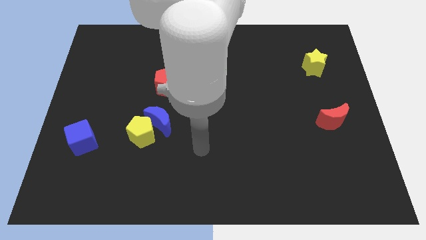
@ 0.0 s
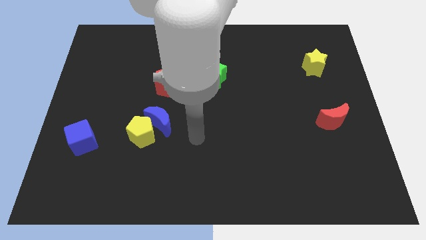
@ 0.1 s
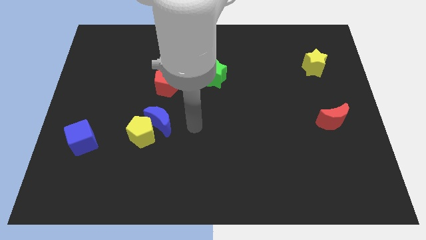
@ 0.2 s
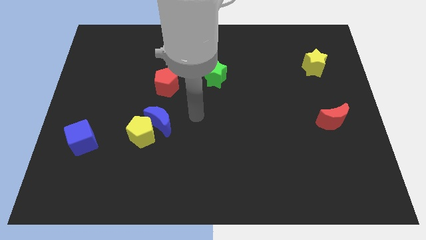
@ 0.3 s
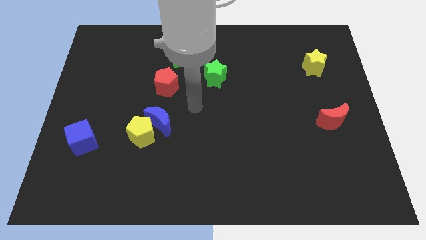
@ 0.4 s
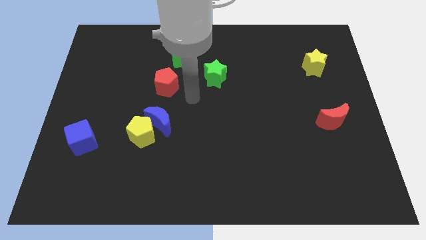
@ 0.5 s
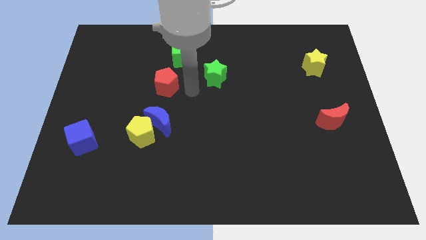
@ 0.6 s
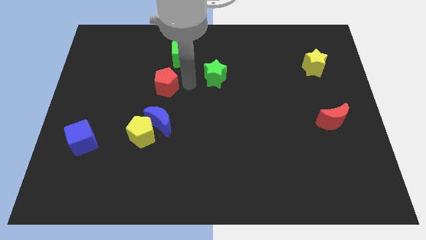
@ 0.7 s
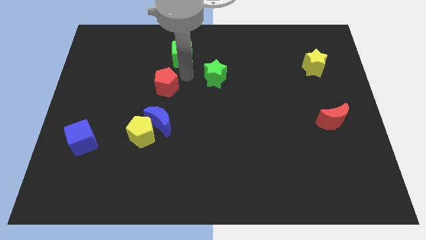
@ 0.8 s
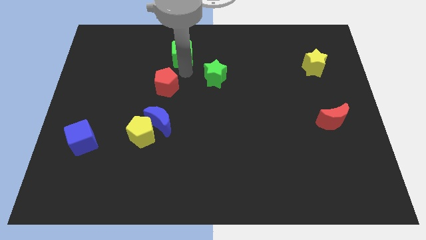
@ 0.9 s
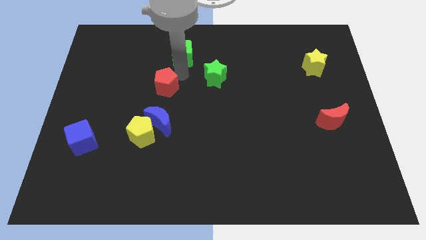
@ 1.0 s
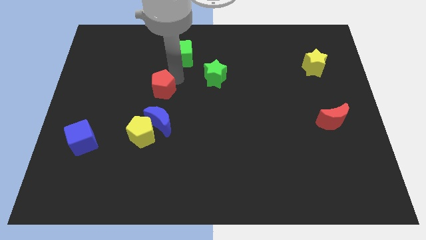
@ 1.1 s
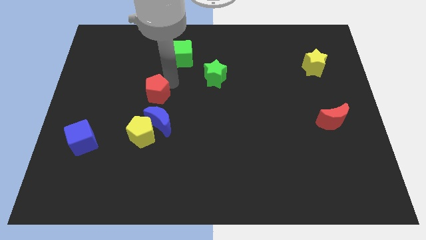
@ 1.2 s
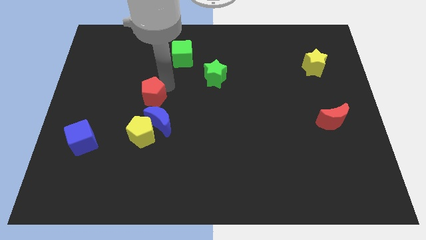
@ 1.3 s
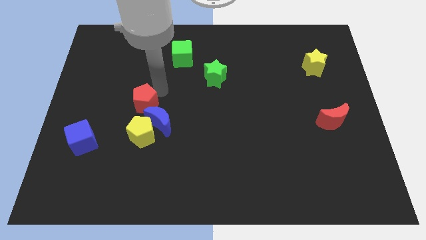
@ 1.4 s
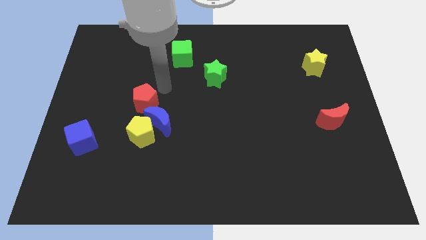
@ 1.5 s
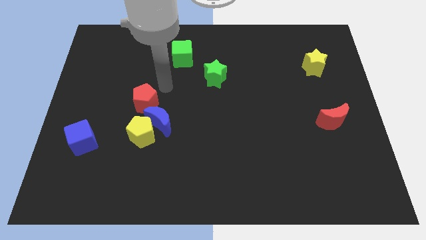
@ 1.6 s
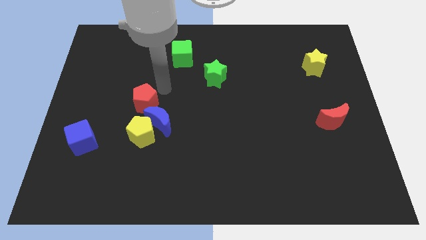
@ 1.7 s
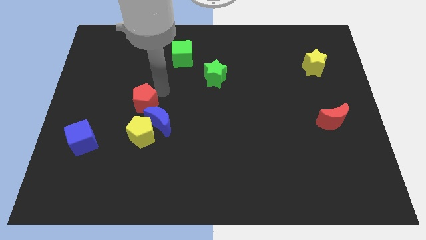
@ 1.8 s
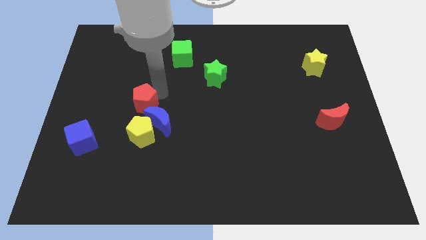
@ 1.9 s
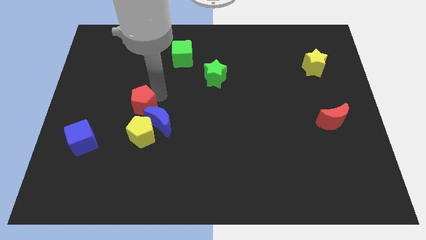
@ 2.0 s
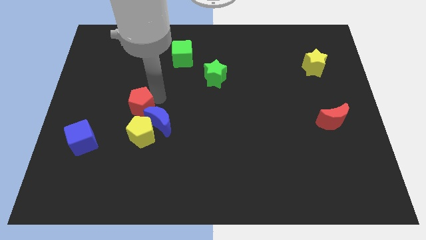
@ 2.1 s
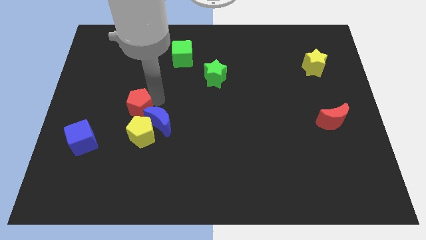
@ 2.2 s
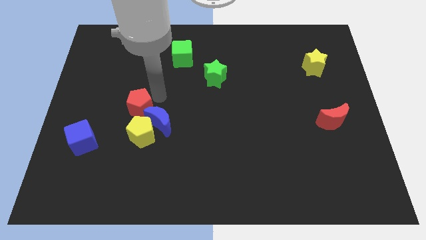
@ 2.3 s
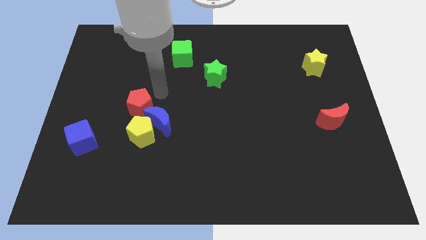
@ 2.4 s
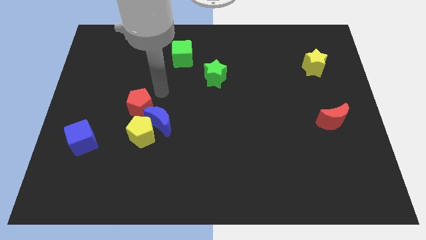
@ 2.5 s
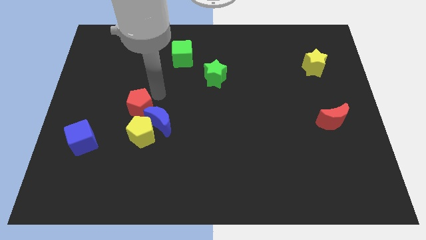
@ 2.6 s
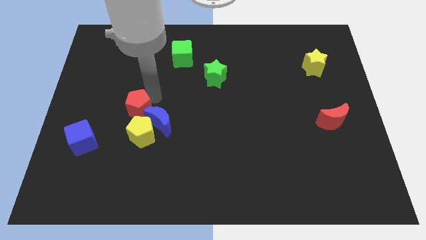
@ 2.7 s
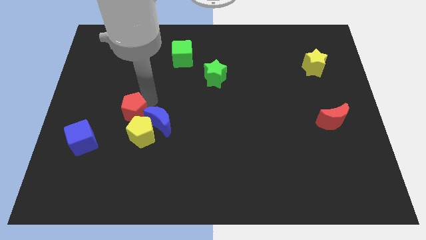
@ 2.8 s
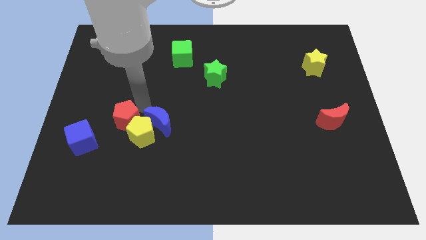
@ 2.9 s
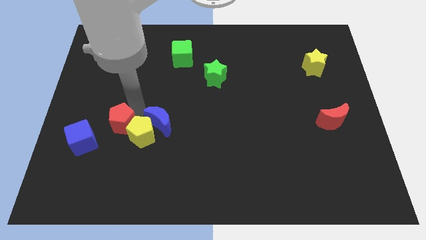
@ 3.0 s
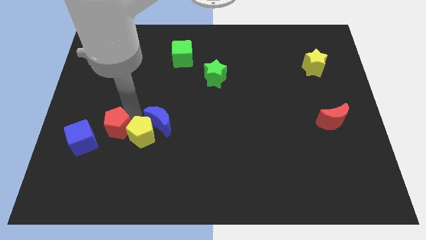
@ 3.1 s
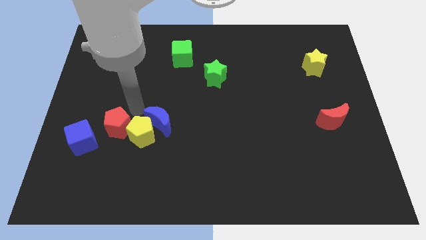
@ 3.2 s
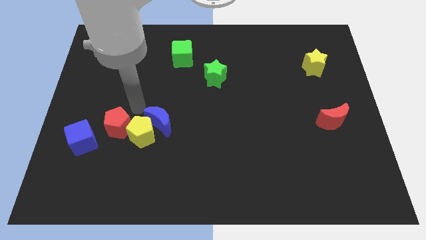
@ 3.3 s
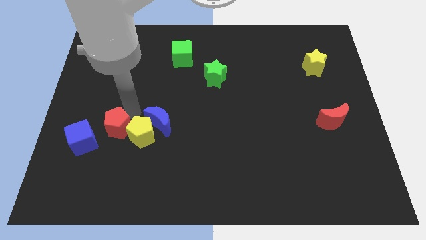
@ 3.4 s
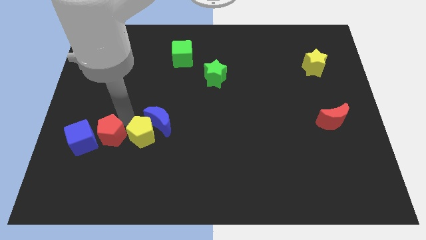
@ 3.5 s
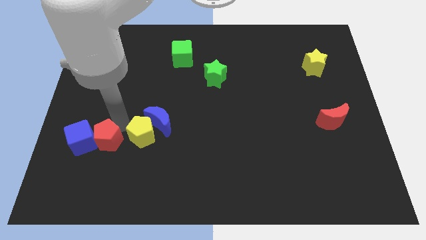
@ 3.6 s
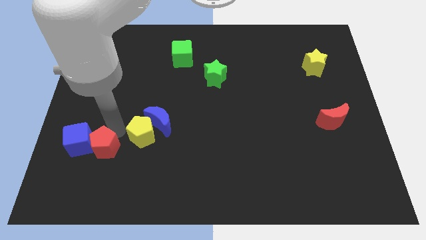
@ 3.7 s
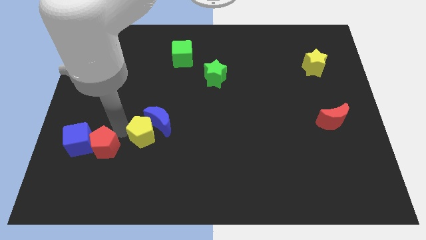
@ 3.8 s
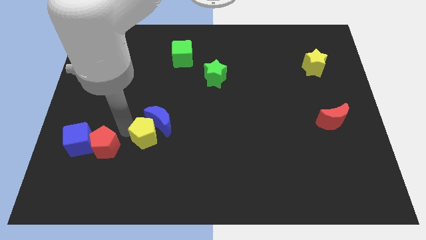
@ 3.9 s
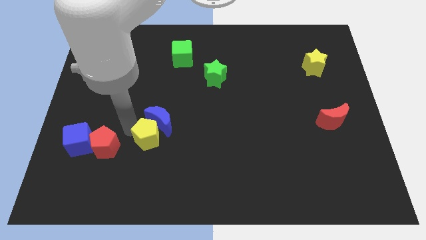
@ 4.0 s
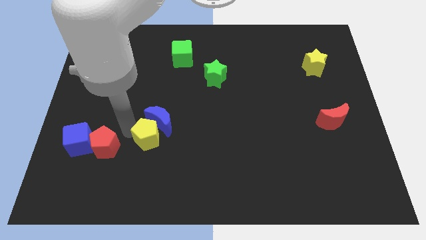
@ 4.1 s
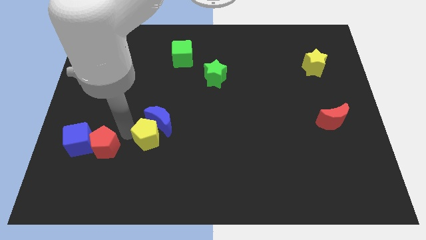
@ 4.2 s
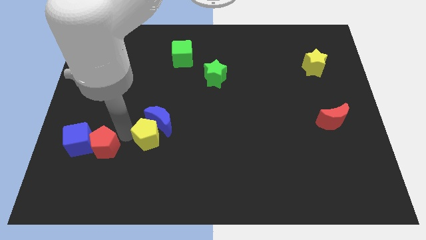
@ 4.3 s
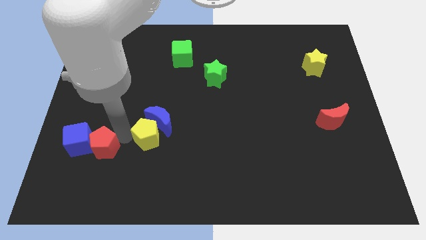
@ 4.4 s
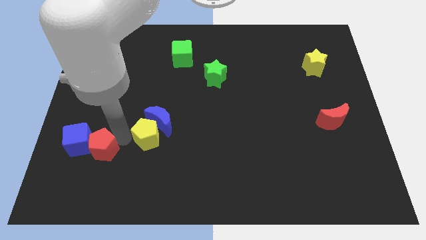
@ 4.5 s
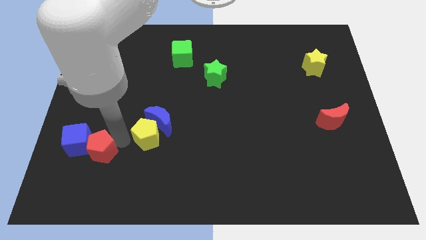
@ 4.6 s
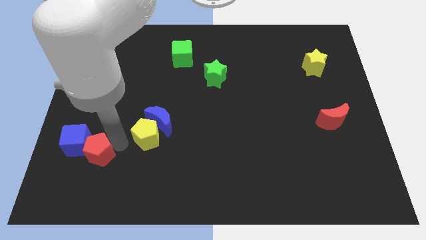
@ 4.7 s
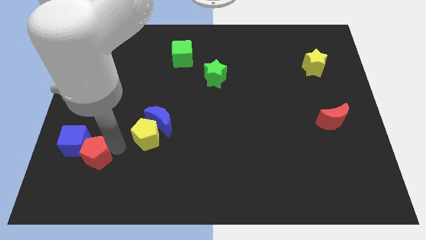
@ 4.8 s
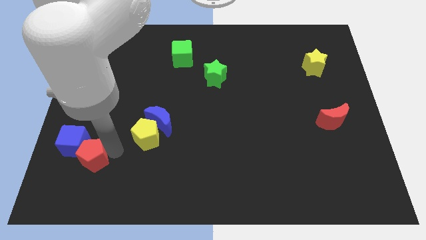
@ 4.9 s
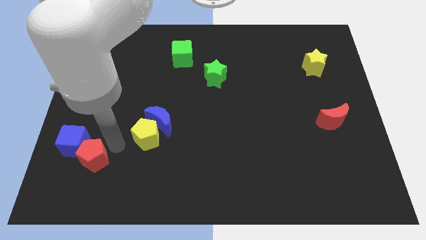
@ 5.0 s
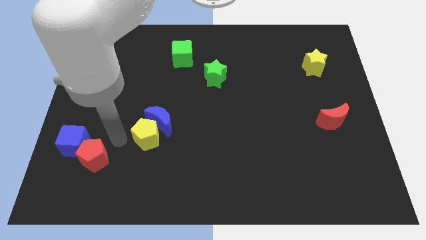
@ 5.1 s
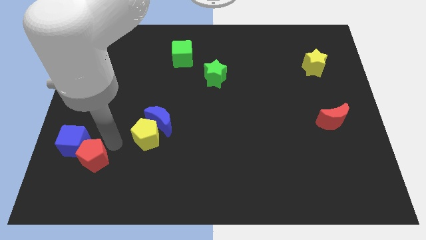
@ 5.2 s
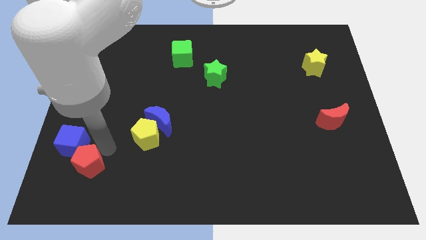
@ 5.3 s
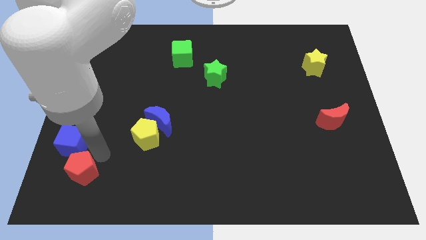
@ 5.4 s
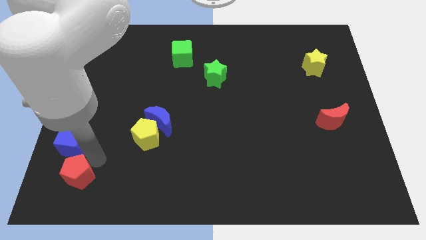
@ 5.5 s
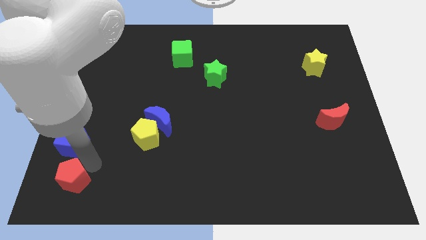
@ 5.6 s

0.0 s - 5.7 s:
put the red pentagon to the bottom left corner

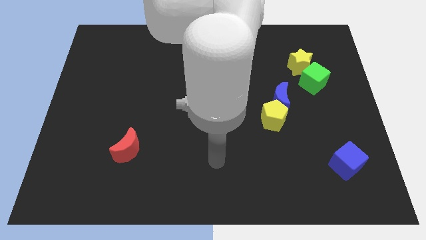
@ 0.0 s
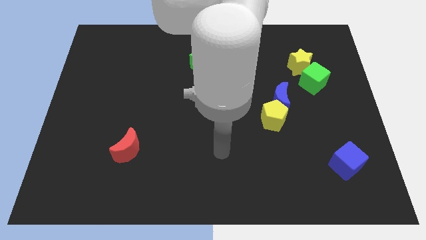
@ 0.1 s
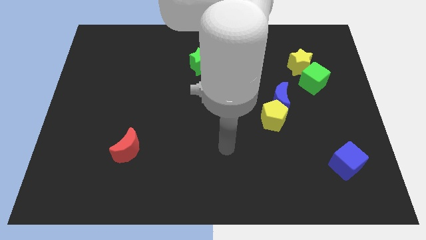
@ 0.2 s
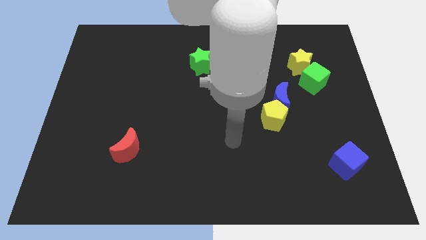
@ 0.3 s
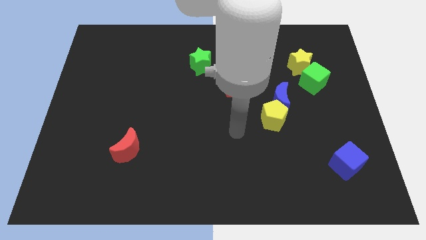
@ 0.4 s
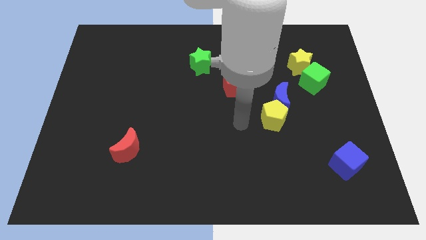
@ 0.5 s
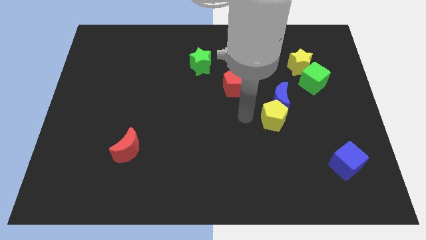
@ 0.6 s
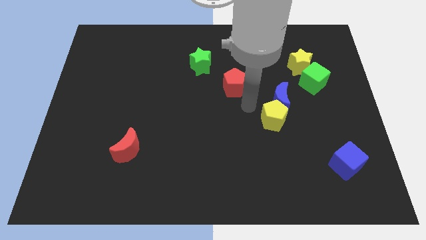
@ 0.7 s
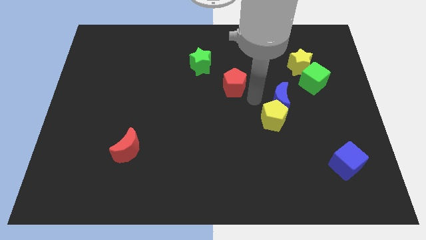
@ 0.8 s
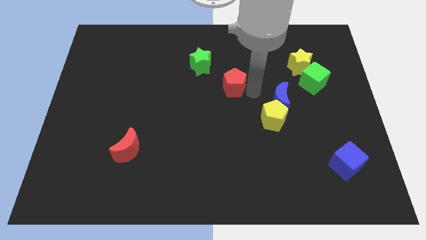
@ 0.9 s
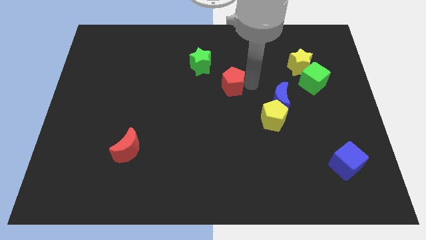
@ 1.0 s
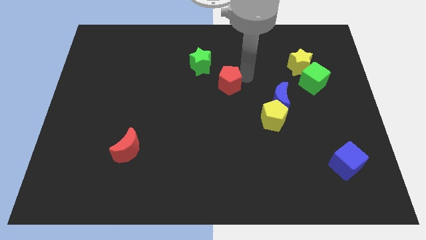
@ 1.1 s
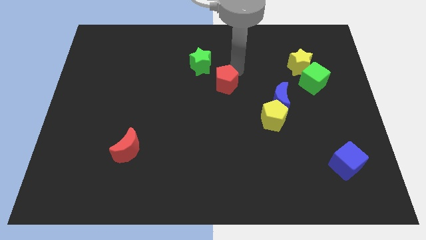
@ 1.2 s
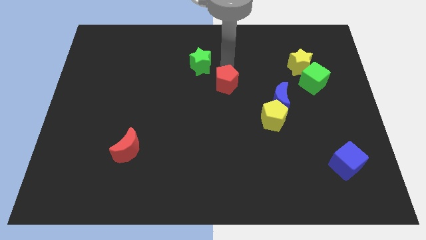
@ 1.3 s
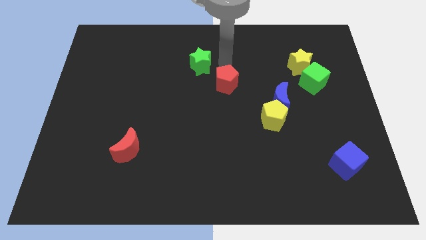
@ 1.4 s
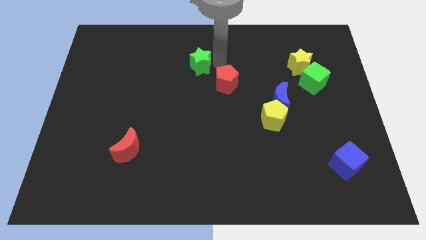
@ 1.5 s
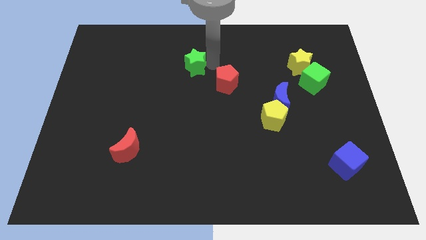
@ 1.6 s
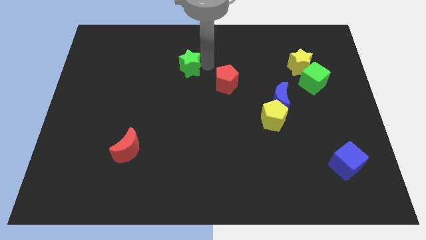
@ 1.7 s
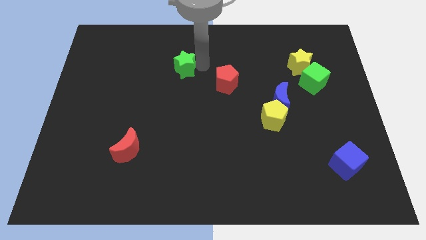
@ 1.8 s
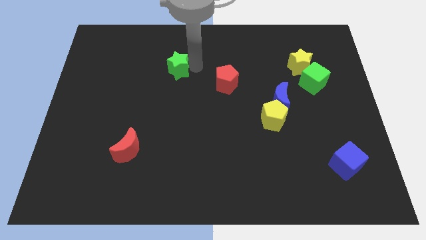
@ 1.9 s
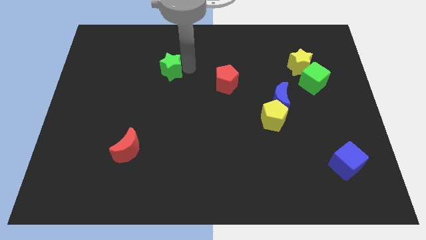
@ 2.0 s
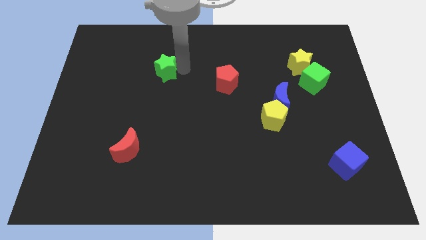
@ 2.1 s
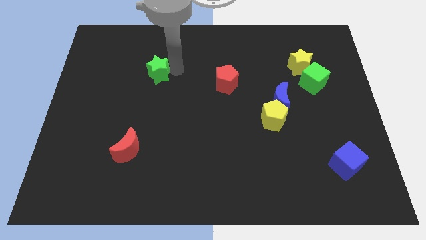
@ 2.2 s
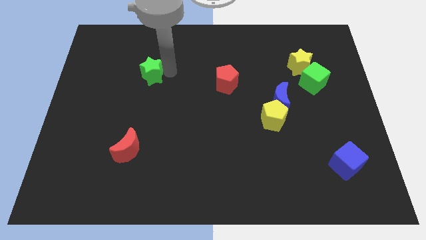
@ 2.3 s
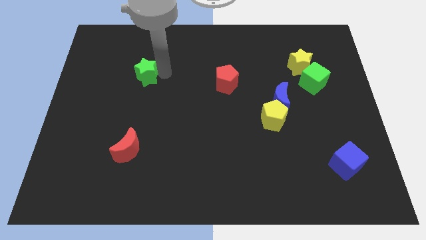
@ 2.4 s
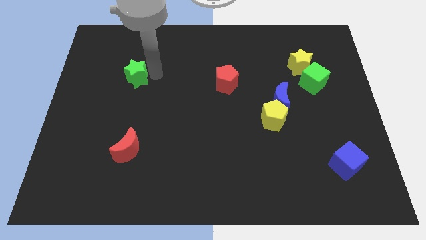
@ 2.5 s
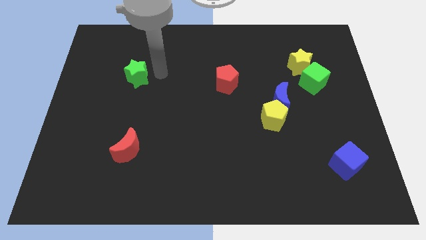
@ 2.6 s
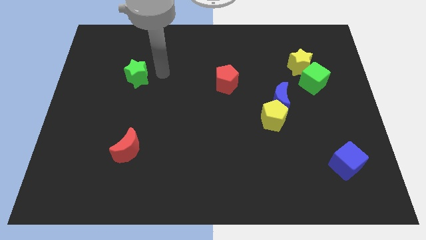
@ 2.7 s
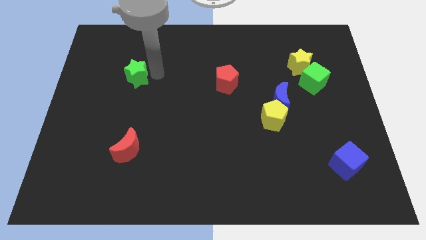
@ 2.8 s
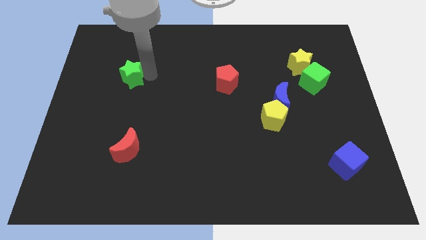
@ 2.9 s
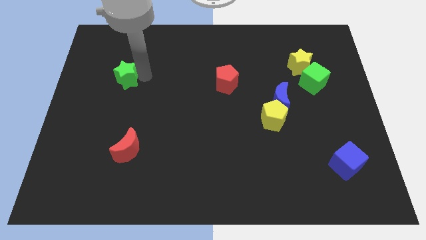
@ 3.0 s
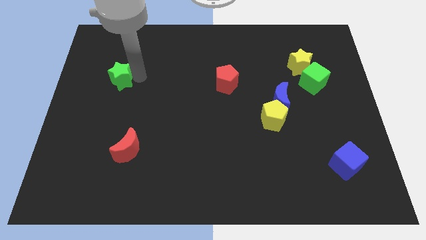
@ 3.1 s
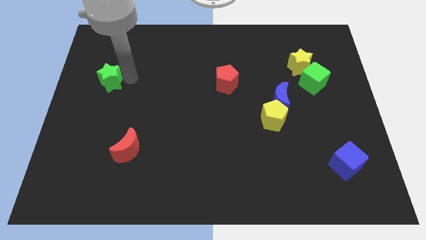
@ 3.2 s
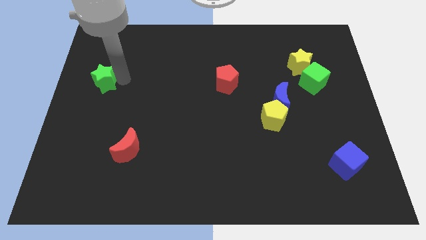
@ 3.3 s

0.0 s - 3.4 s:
move the green star to the left side
